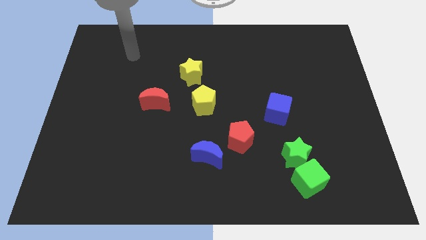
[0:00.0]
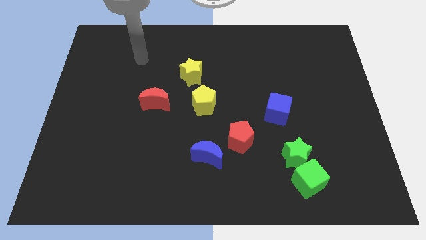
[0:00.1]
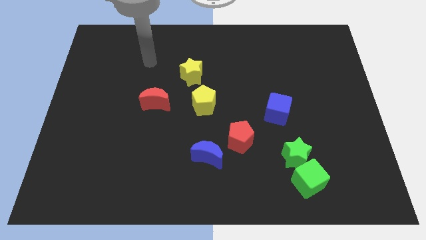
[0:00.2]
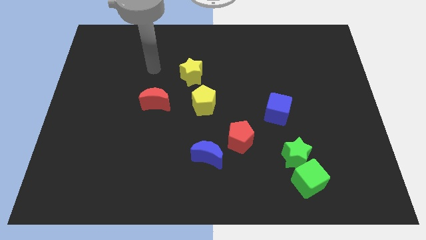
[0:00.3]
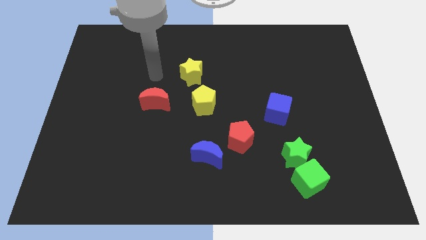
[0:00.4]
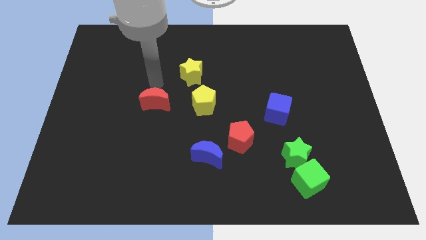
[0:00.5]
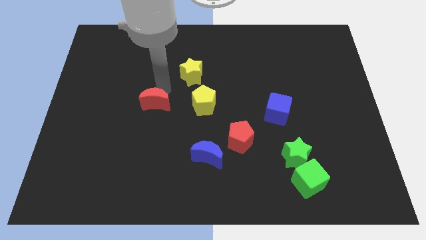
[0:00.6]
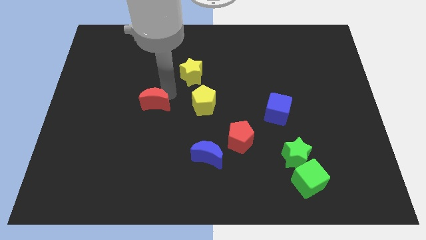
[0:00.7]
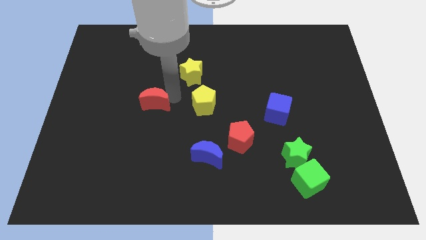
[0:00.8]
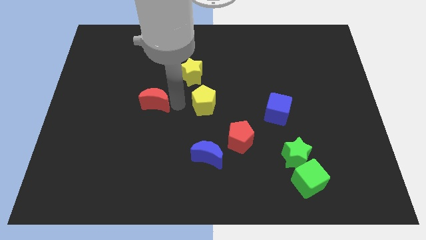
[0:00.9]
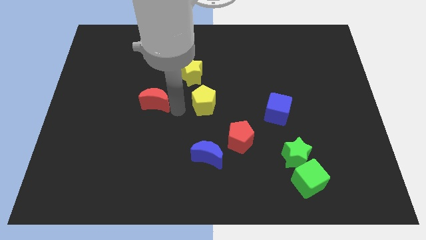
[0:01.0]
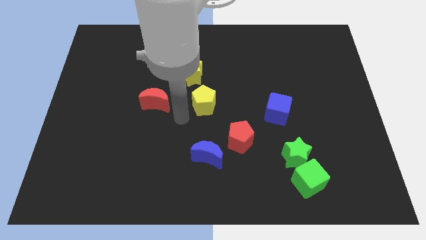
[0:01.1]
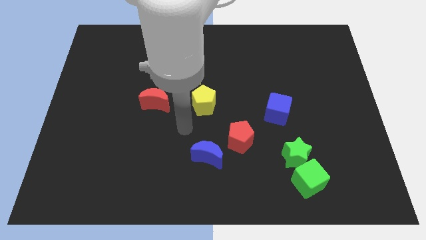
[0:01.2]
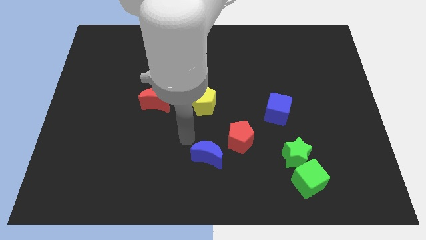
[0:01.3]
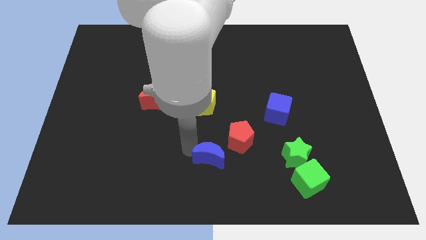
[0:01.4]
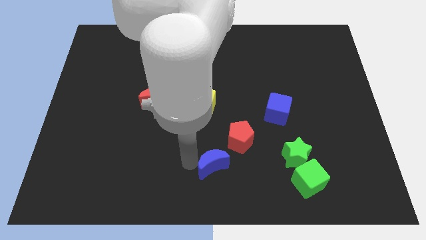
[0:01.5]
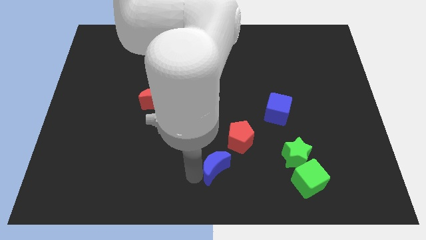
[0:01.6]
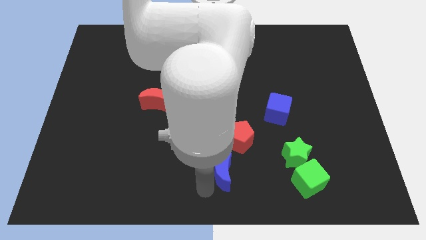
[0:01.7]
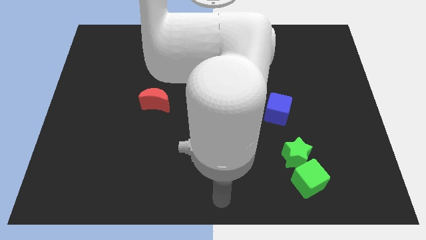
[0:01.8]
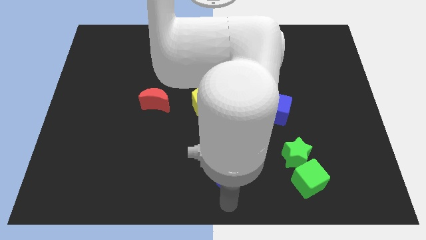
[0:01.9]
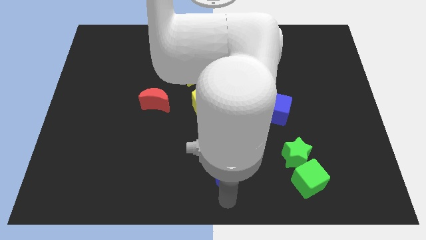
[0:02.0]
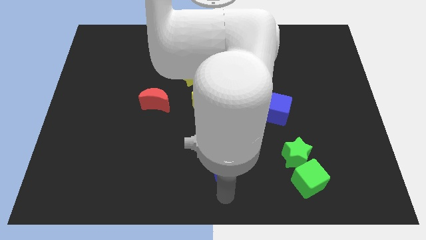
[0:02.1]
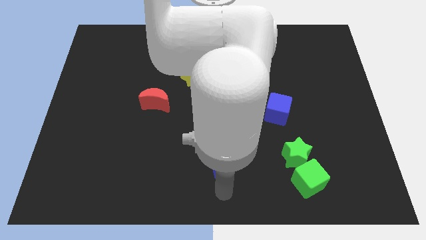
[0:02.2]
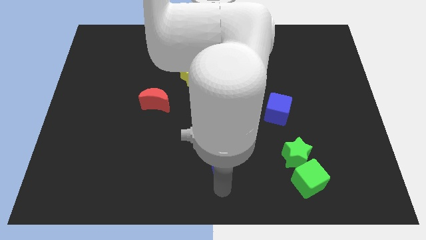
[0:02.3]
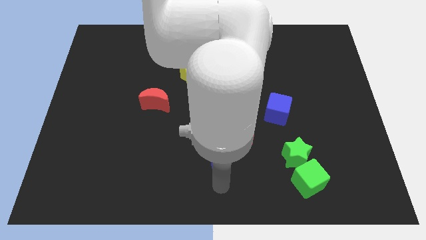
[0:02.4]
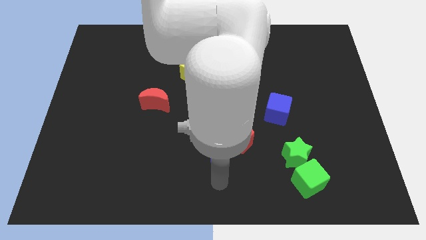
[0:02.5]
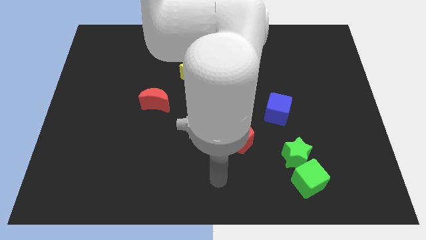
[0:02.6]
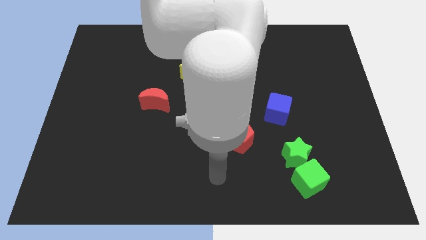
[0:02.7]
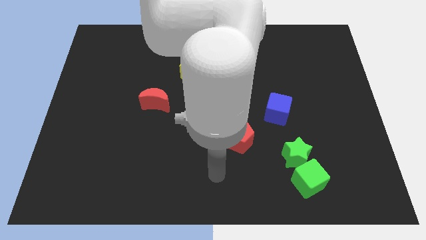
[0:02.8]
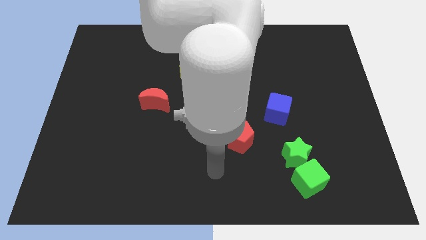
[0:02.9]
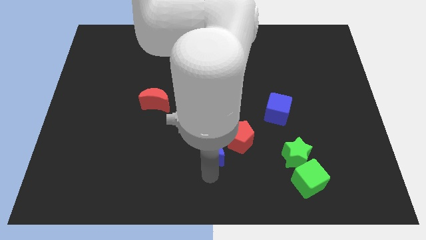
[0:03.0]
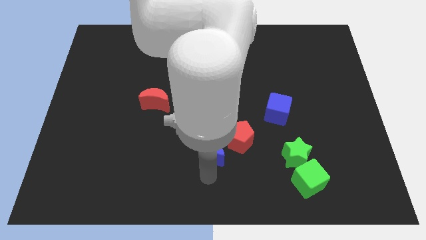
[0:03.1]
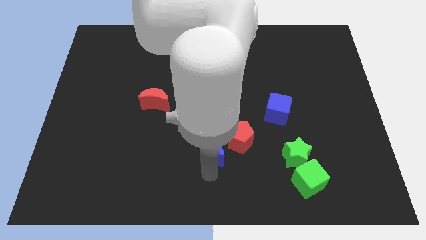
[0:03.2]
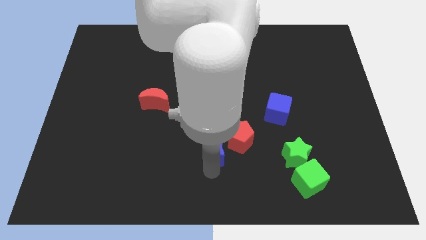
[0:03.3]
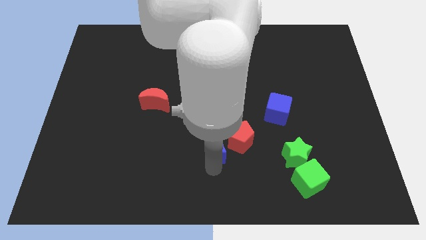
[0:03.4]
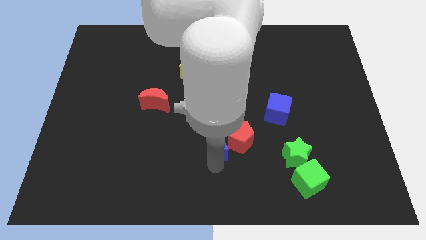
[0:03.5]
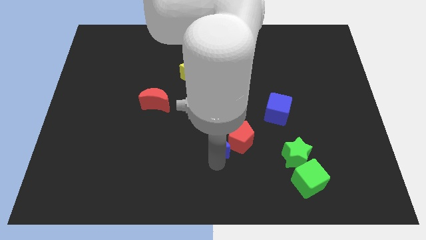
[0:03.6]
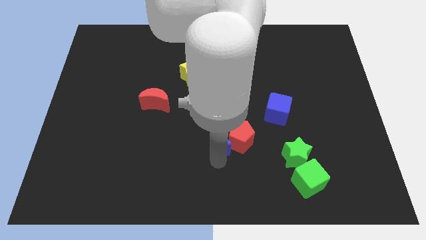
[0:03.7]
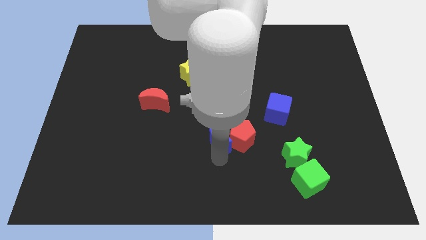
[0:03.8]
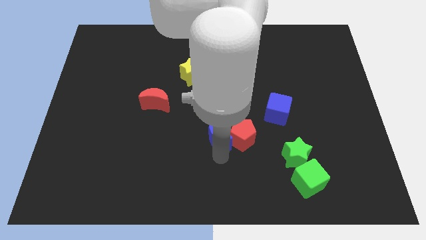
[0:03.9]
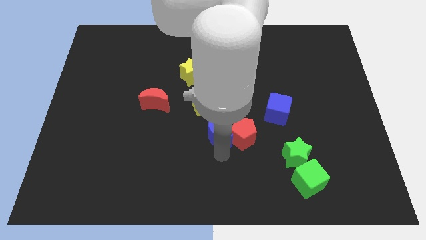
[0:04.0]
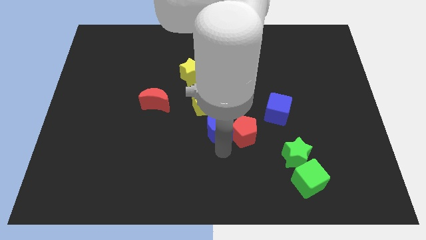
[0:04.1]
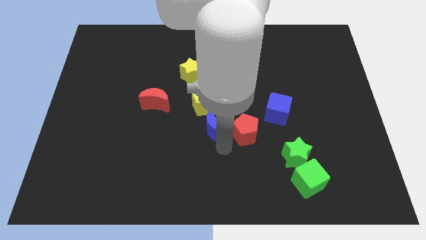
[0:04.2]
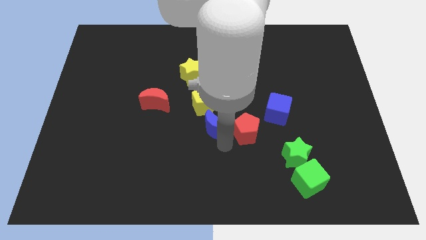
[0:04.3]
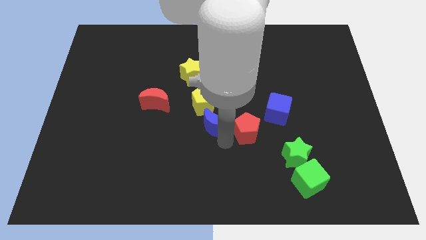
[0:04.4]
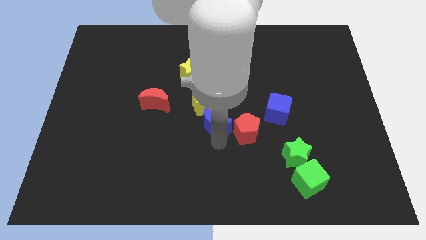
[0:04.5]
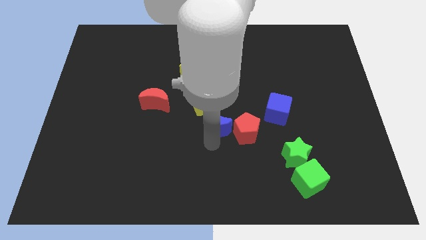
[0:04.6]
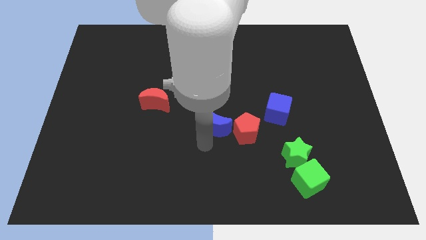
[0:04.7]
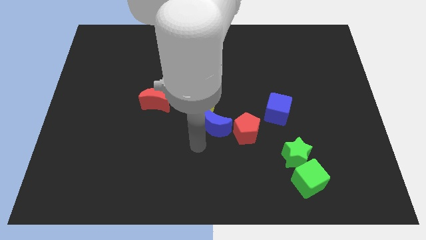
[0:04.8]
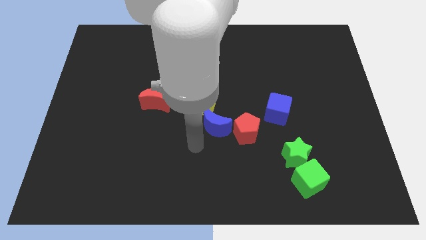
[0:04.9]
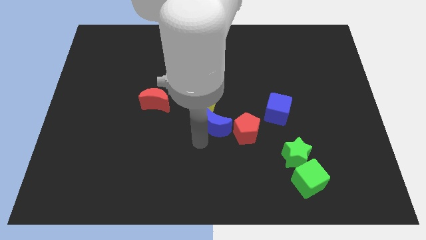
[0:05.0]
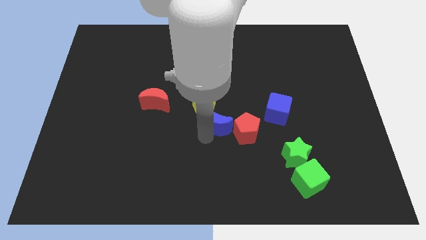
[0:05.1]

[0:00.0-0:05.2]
put the blue moon left of the blue cube

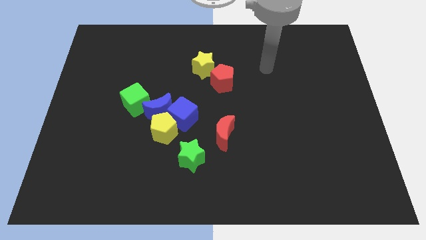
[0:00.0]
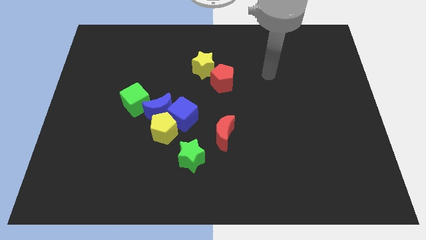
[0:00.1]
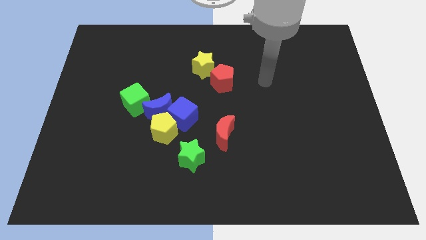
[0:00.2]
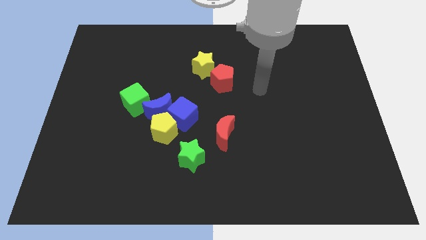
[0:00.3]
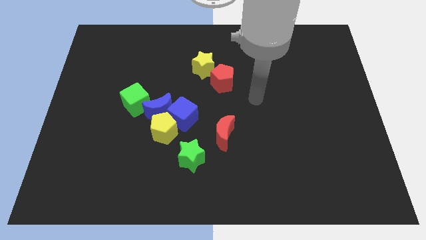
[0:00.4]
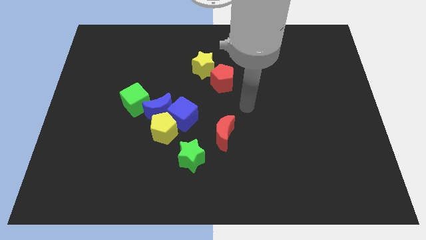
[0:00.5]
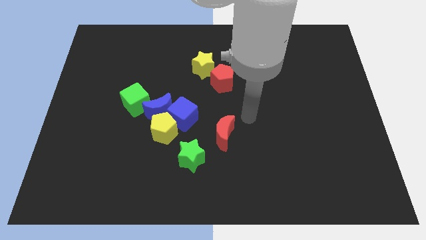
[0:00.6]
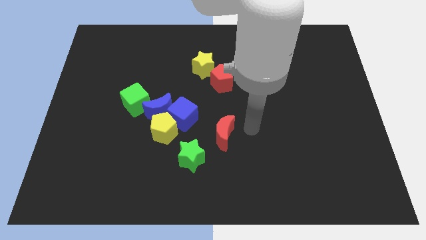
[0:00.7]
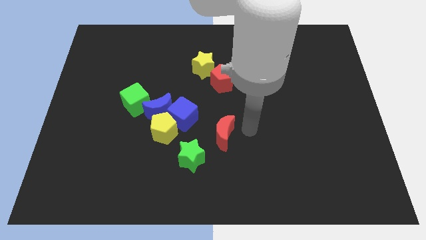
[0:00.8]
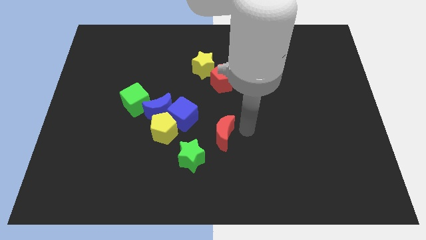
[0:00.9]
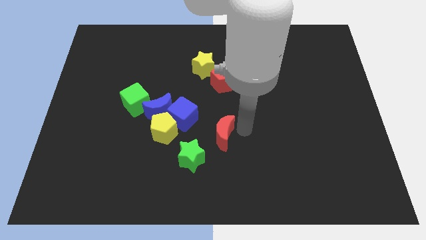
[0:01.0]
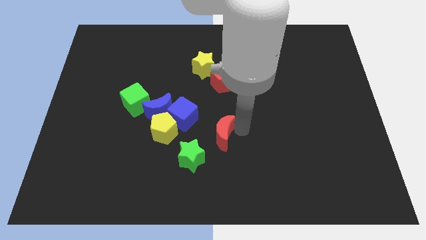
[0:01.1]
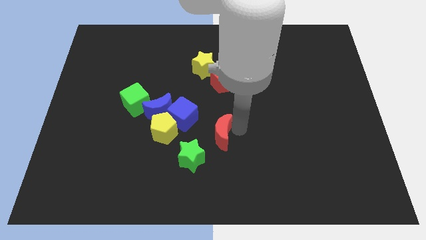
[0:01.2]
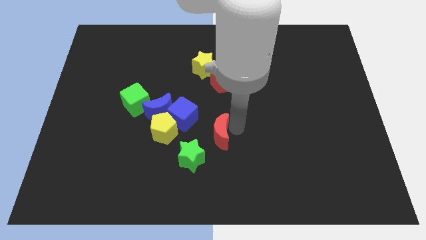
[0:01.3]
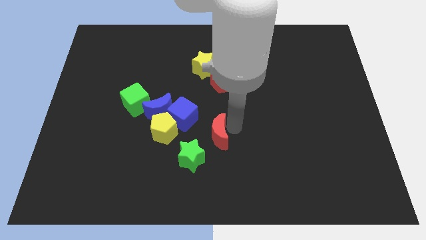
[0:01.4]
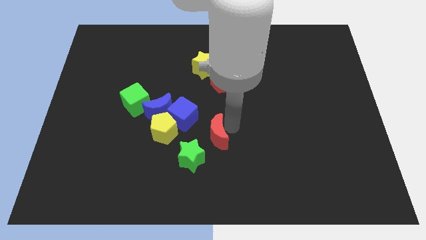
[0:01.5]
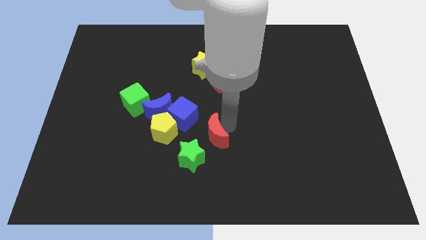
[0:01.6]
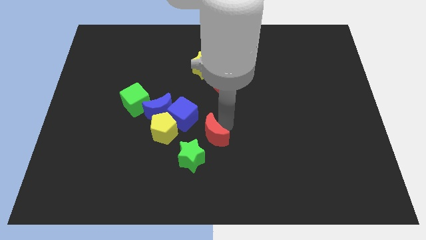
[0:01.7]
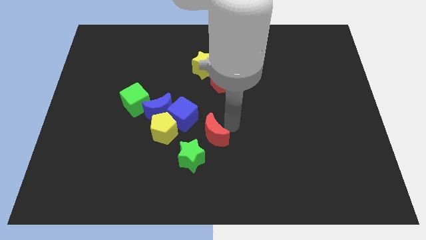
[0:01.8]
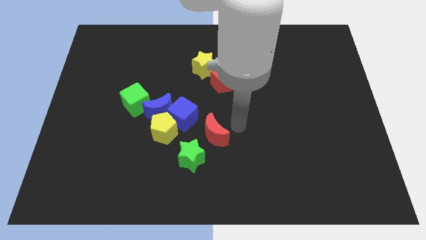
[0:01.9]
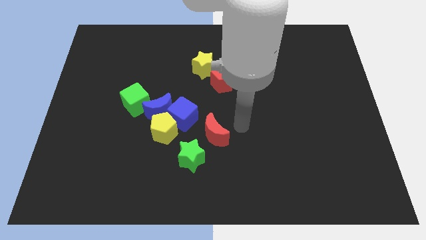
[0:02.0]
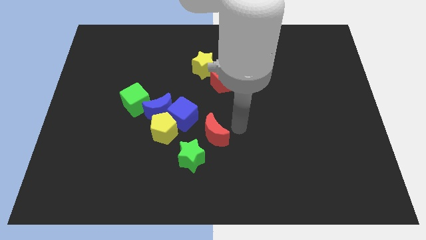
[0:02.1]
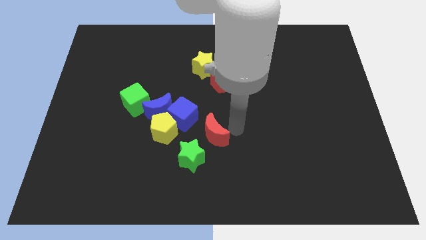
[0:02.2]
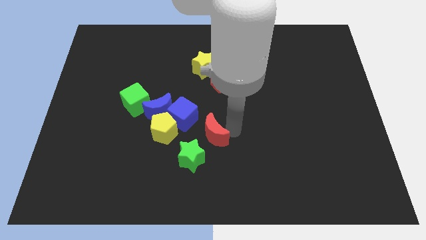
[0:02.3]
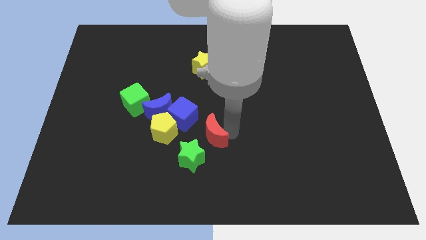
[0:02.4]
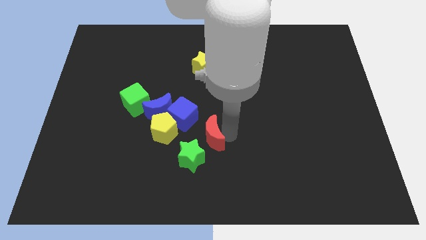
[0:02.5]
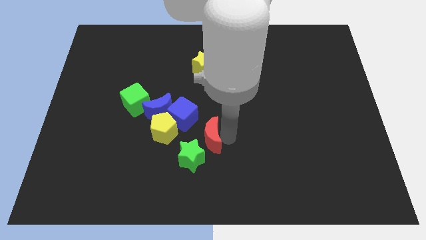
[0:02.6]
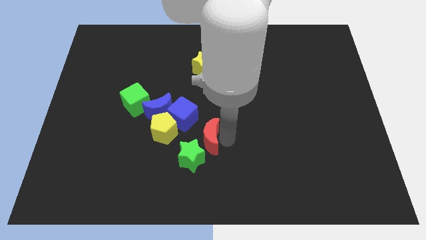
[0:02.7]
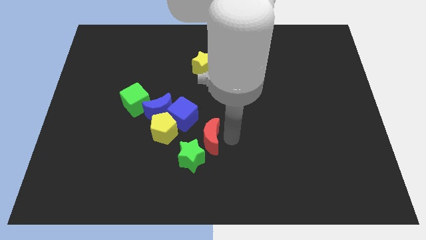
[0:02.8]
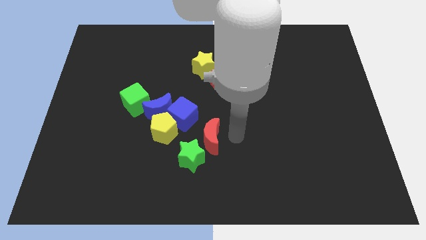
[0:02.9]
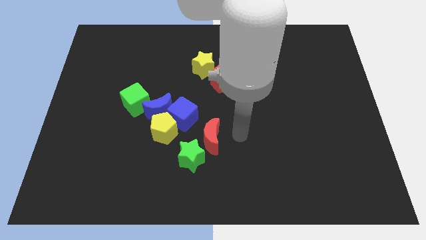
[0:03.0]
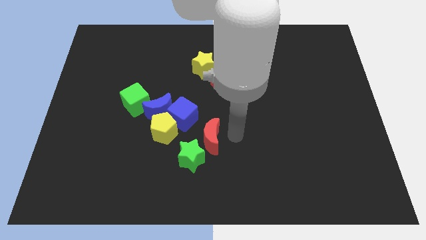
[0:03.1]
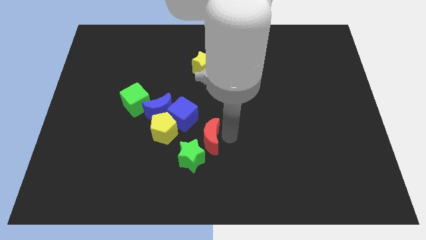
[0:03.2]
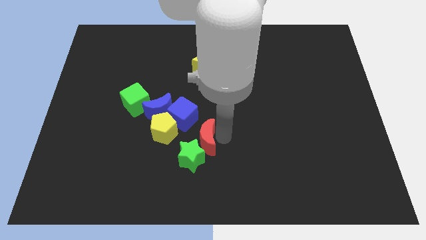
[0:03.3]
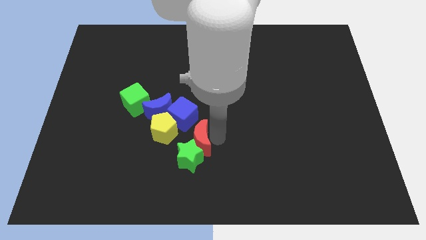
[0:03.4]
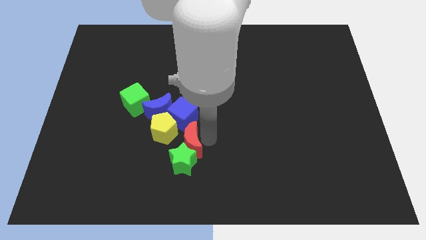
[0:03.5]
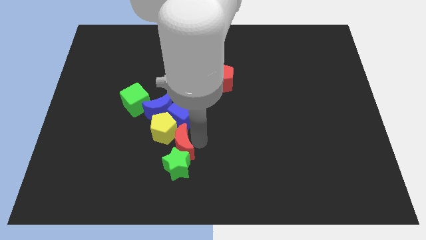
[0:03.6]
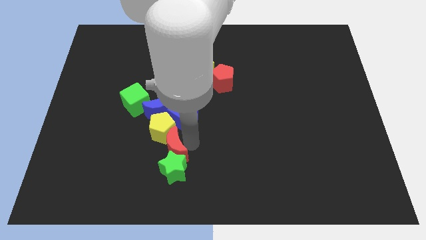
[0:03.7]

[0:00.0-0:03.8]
push the red moon to the bottom side of the blue moon
